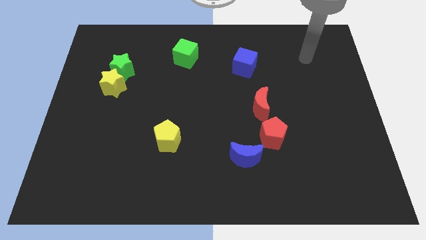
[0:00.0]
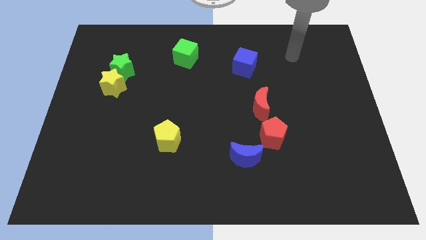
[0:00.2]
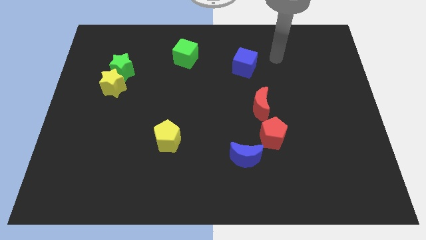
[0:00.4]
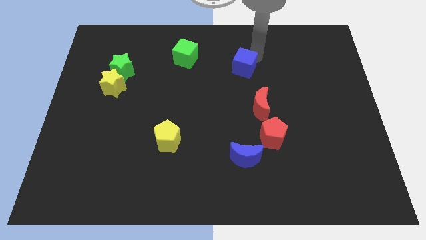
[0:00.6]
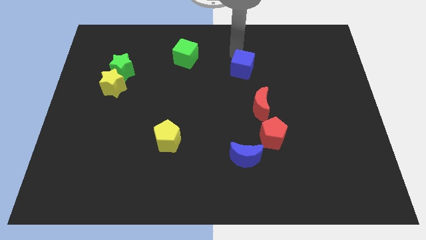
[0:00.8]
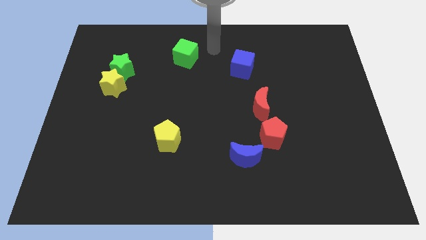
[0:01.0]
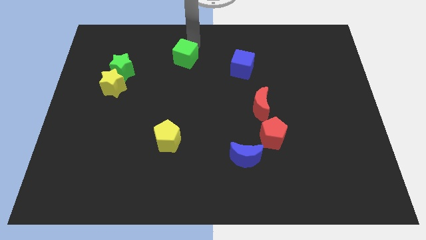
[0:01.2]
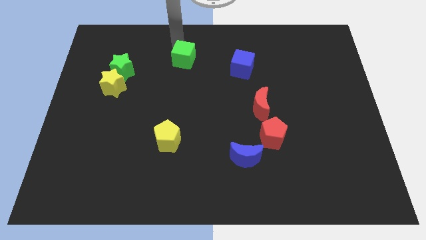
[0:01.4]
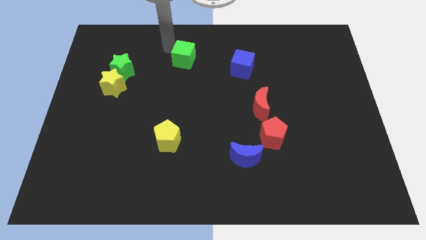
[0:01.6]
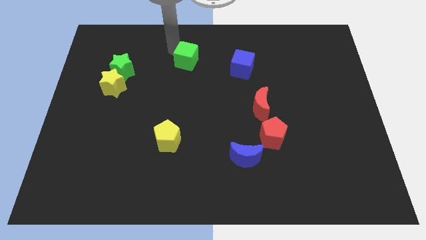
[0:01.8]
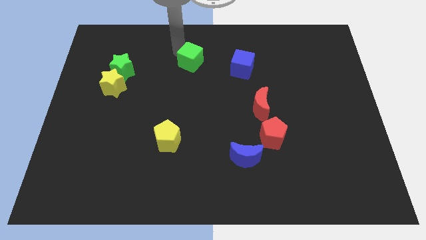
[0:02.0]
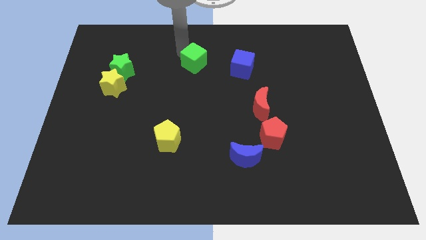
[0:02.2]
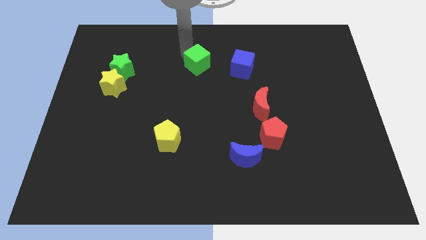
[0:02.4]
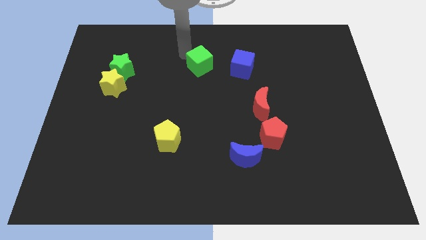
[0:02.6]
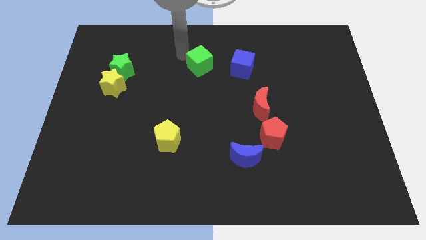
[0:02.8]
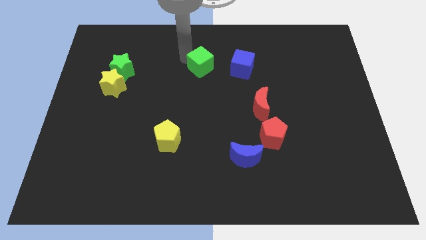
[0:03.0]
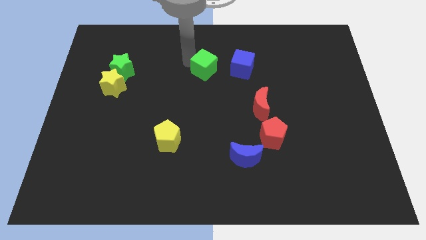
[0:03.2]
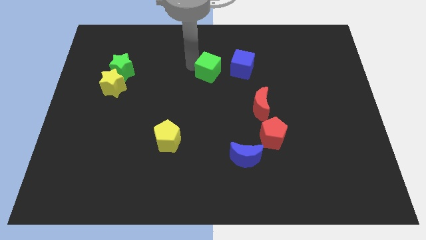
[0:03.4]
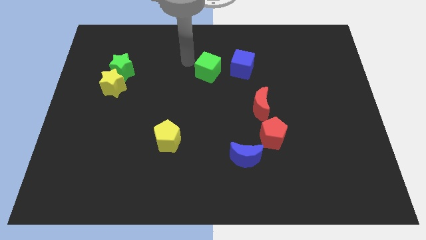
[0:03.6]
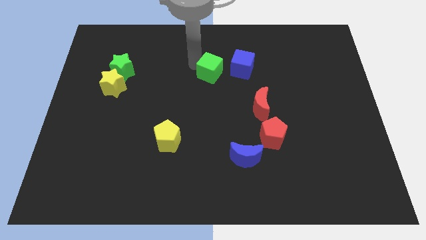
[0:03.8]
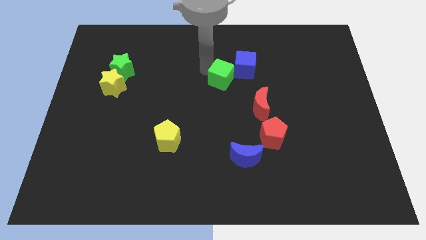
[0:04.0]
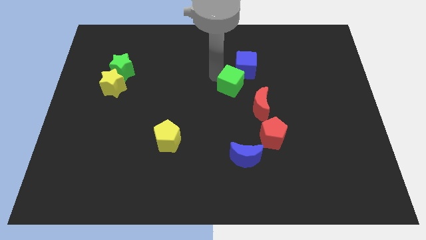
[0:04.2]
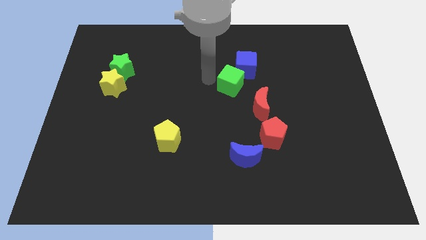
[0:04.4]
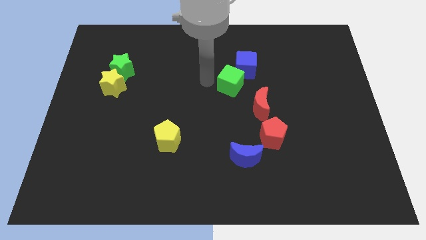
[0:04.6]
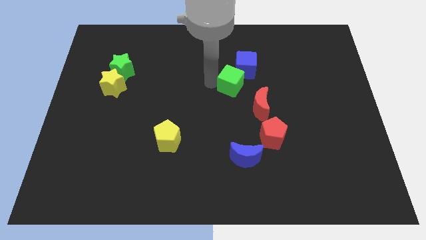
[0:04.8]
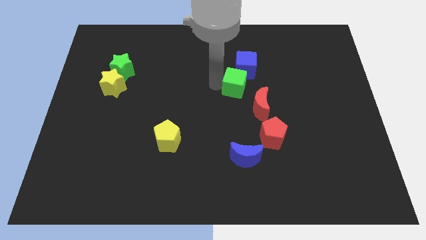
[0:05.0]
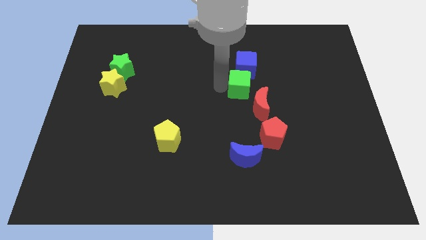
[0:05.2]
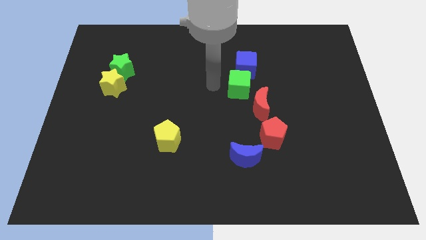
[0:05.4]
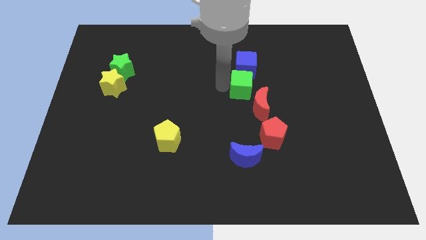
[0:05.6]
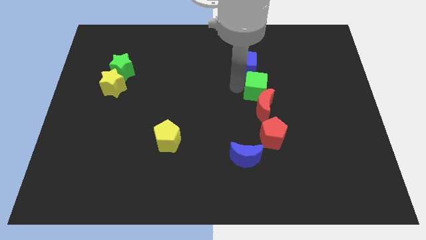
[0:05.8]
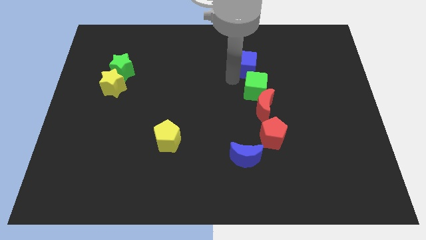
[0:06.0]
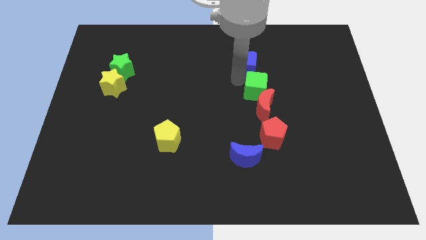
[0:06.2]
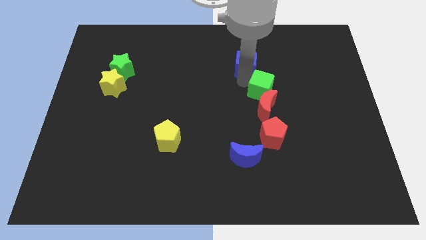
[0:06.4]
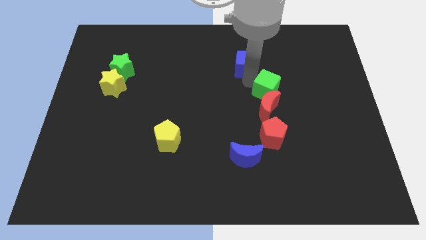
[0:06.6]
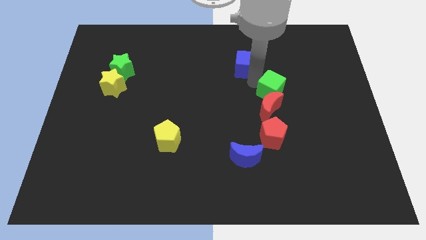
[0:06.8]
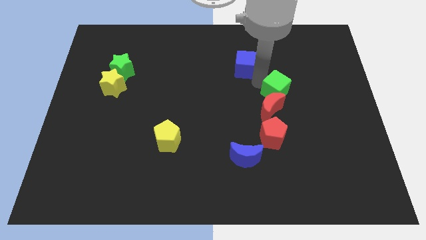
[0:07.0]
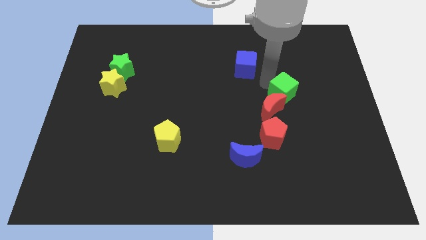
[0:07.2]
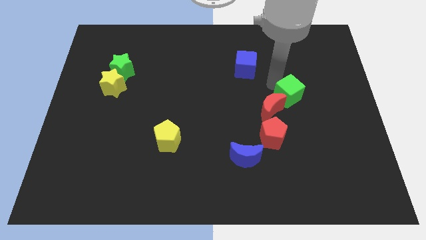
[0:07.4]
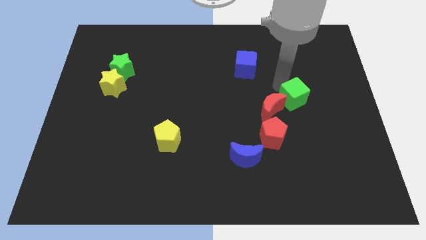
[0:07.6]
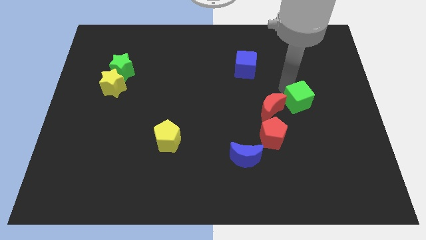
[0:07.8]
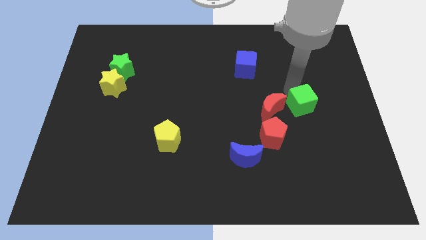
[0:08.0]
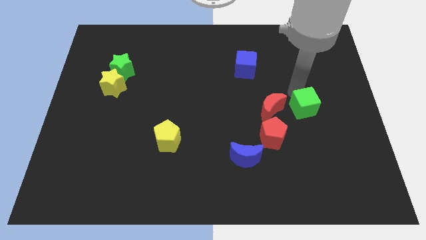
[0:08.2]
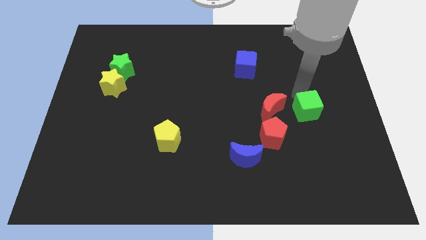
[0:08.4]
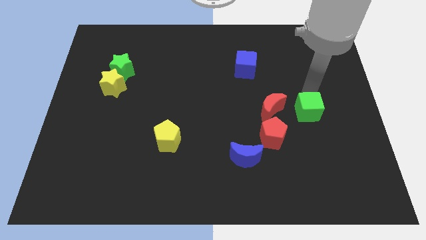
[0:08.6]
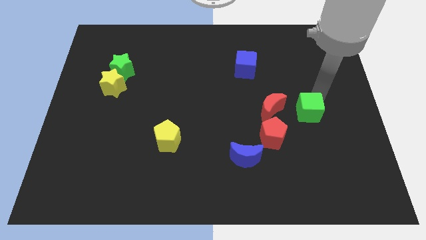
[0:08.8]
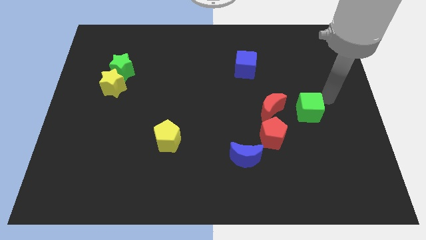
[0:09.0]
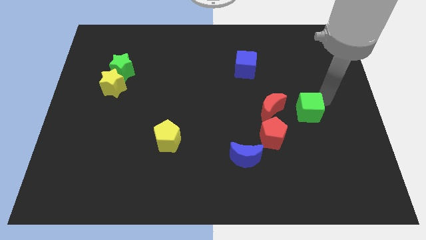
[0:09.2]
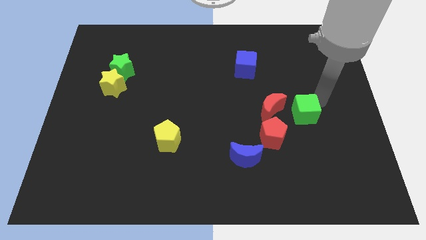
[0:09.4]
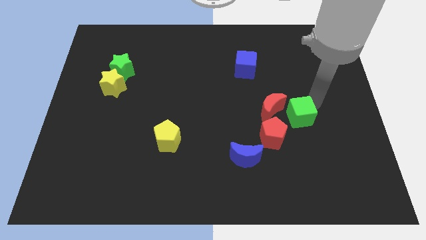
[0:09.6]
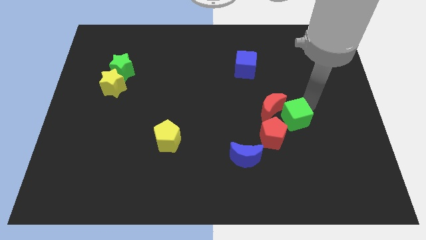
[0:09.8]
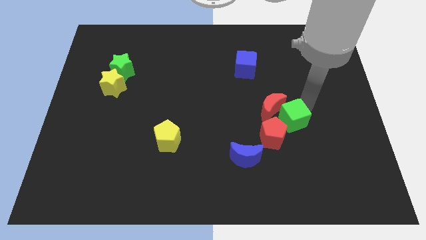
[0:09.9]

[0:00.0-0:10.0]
put the green cube to the right of the red pentagon

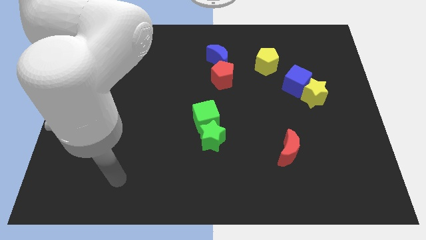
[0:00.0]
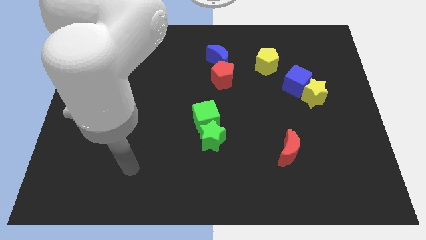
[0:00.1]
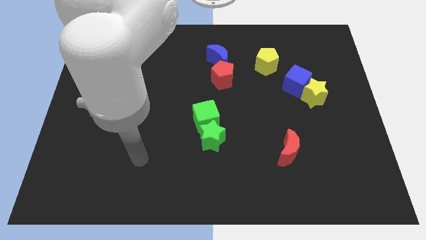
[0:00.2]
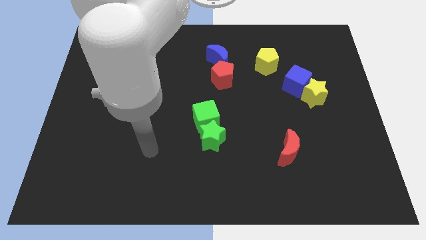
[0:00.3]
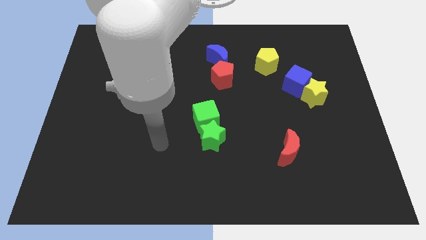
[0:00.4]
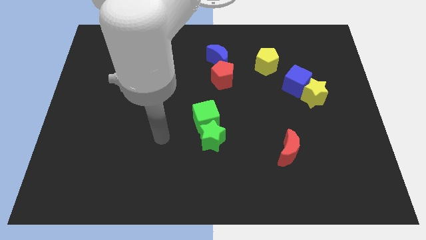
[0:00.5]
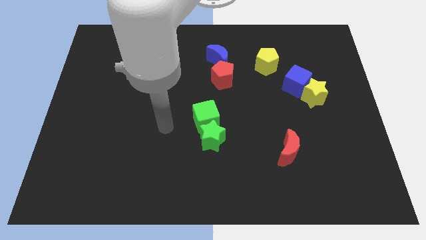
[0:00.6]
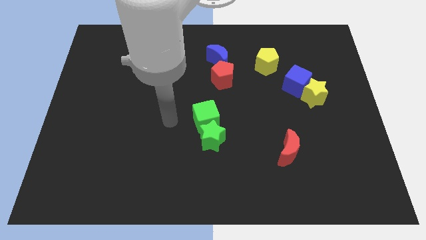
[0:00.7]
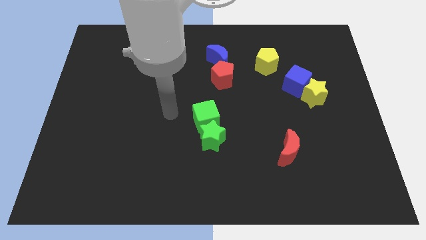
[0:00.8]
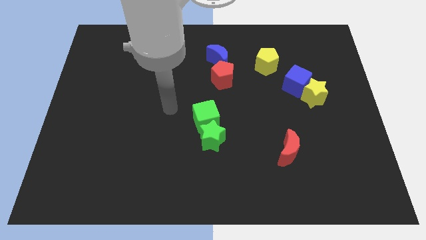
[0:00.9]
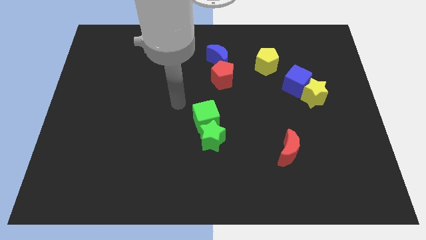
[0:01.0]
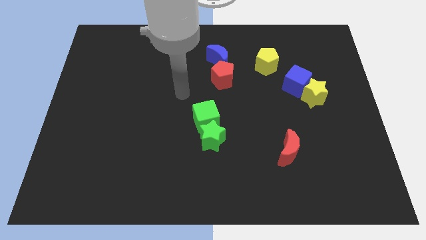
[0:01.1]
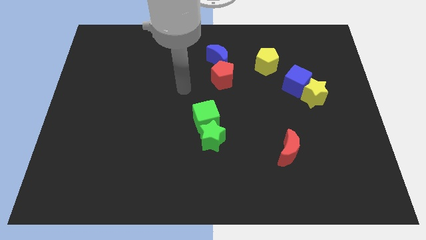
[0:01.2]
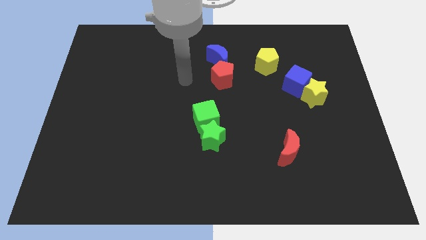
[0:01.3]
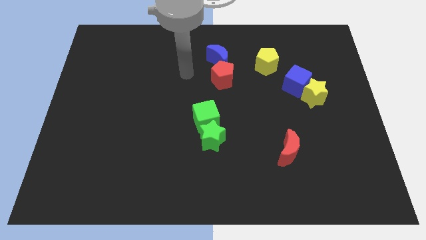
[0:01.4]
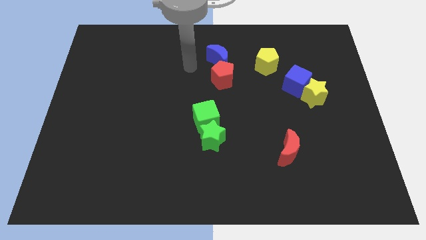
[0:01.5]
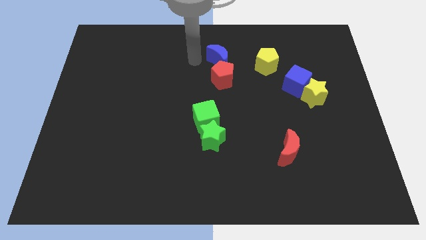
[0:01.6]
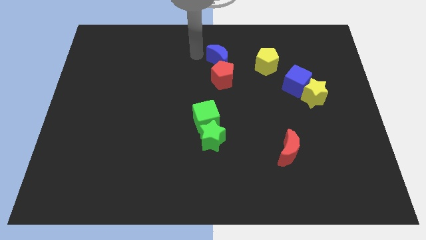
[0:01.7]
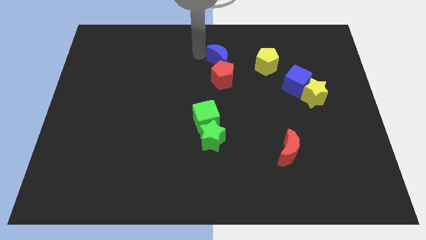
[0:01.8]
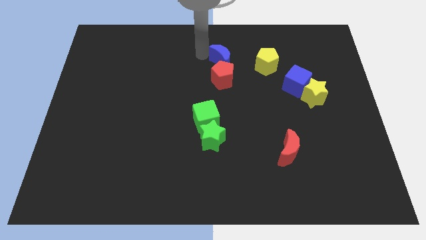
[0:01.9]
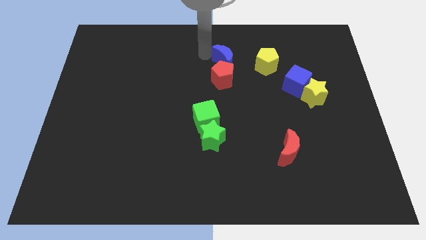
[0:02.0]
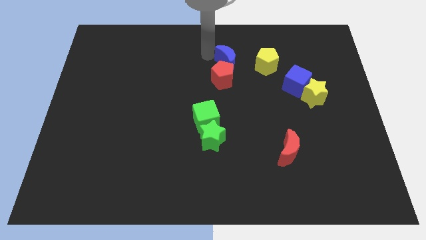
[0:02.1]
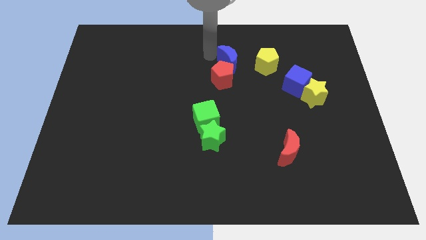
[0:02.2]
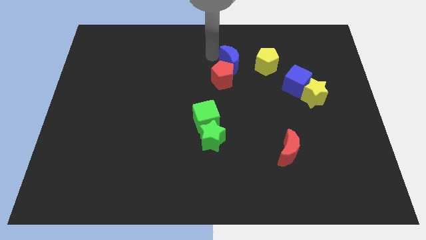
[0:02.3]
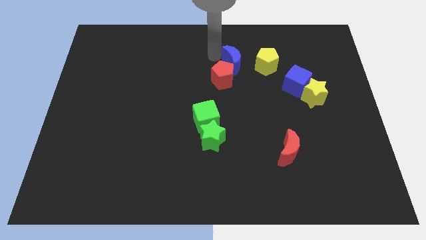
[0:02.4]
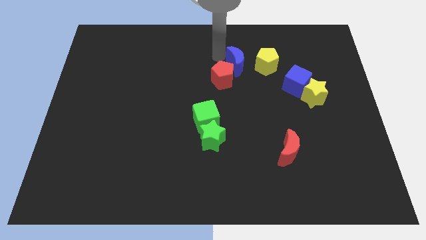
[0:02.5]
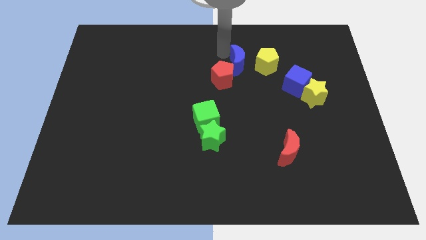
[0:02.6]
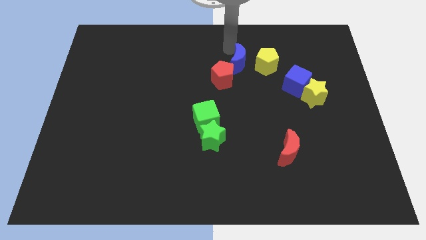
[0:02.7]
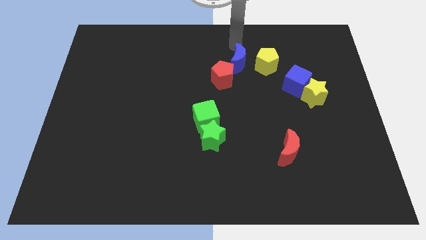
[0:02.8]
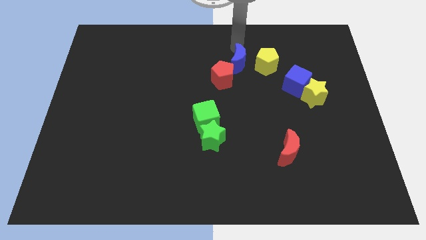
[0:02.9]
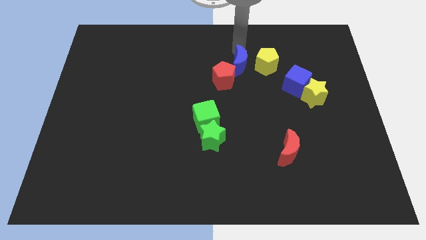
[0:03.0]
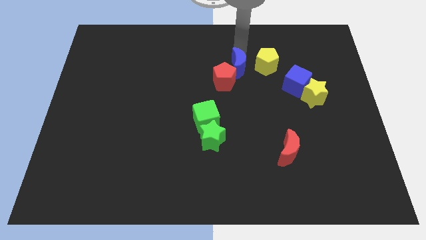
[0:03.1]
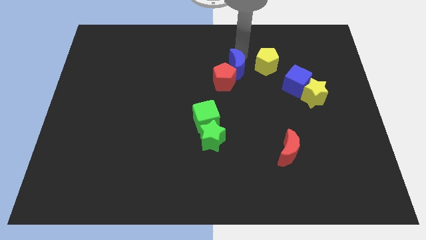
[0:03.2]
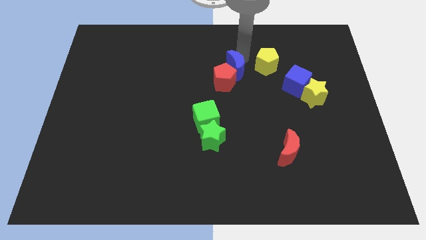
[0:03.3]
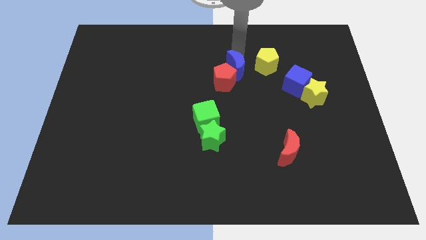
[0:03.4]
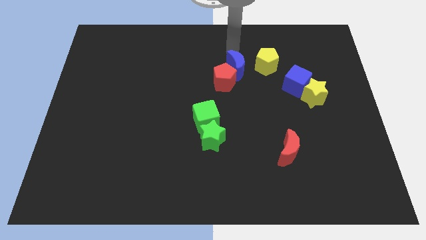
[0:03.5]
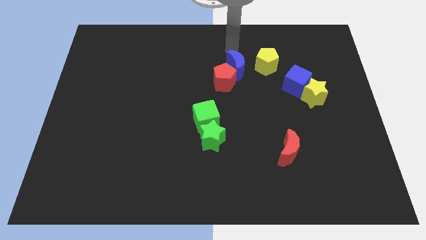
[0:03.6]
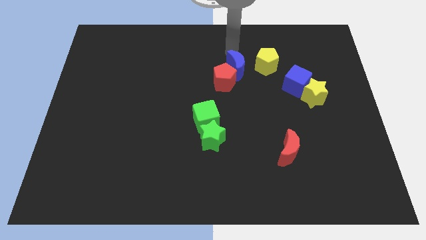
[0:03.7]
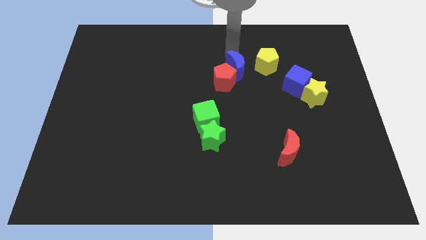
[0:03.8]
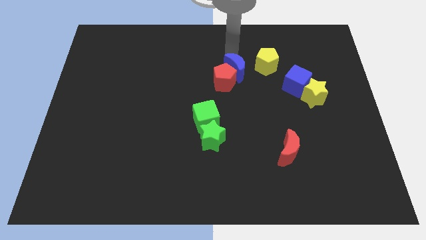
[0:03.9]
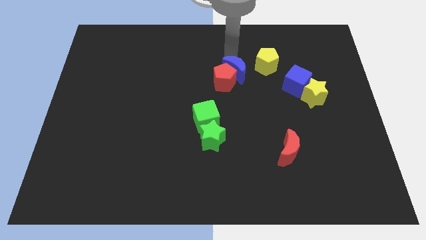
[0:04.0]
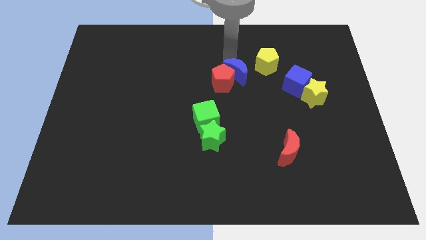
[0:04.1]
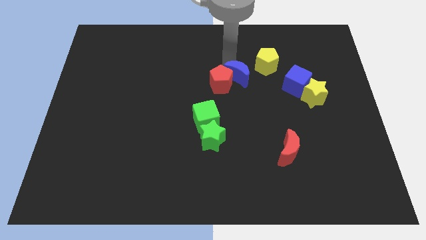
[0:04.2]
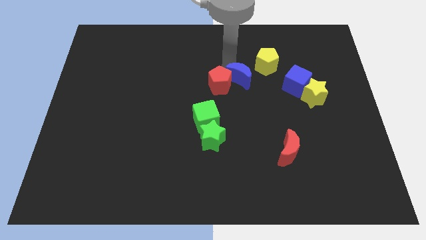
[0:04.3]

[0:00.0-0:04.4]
slide the blue moon diagonally down and to the right of the red pentagon
